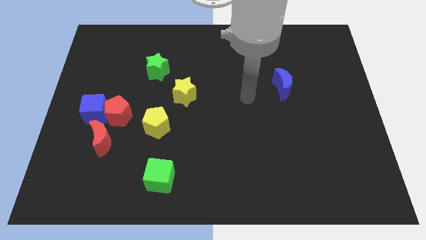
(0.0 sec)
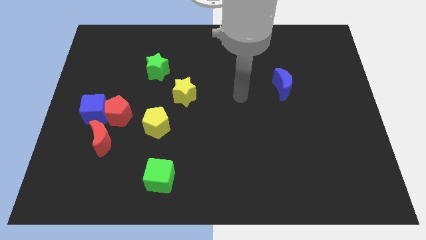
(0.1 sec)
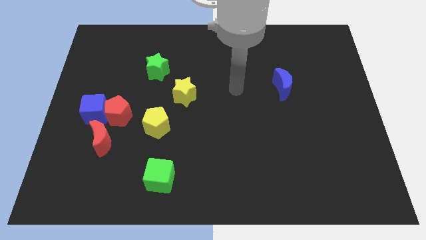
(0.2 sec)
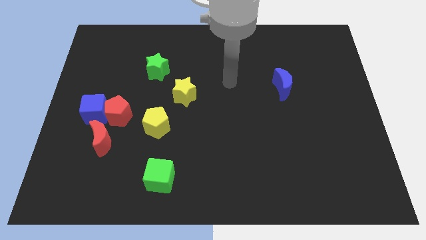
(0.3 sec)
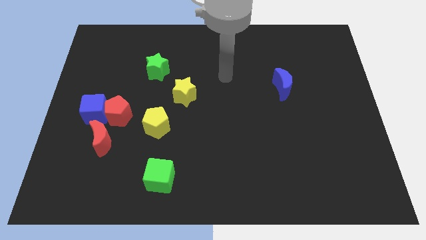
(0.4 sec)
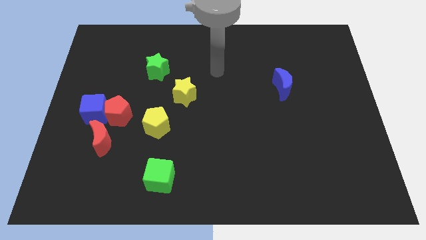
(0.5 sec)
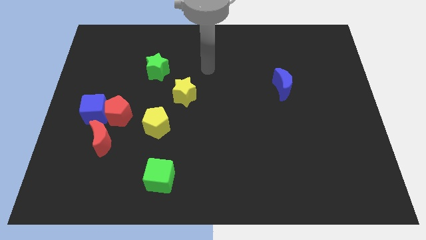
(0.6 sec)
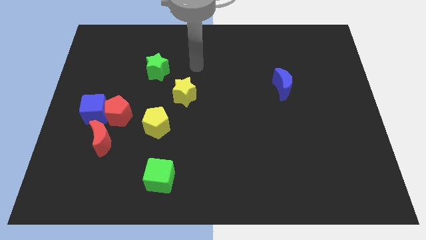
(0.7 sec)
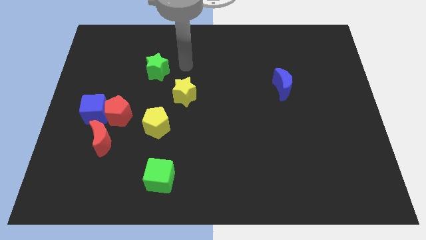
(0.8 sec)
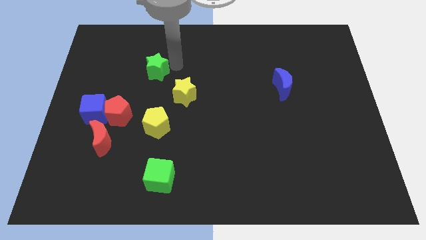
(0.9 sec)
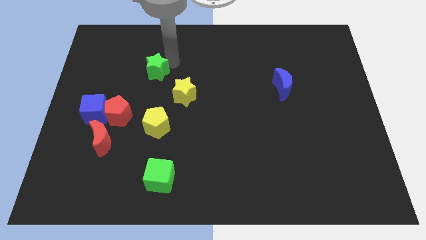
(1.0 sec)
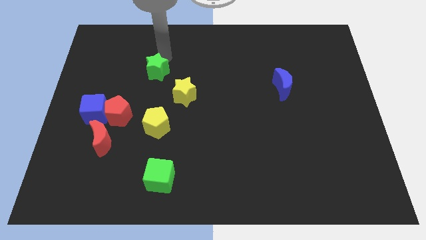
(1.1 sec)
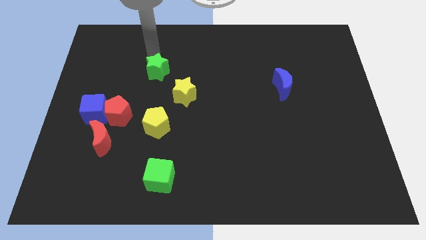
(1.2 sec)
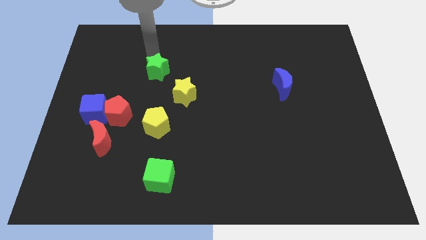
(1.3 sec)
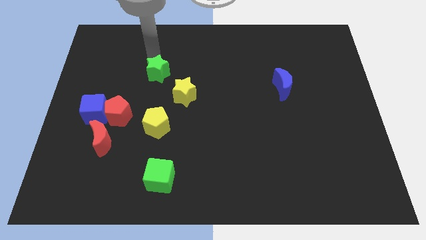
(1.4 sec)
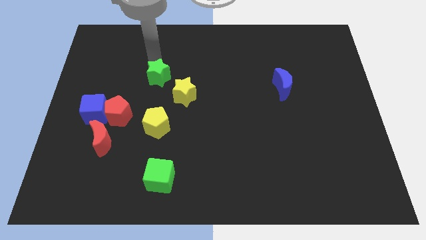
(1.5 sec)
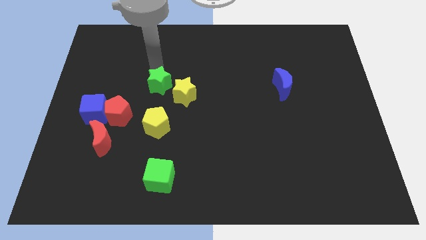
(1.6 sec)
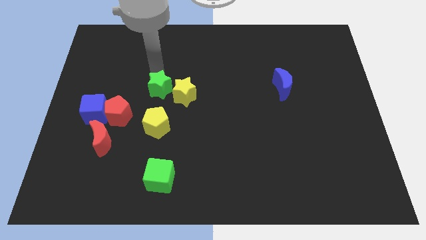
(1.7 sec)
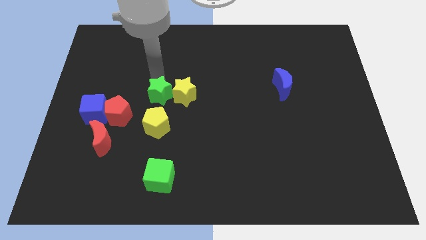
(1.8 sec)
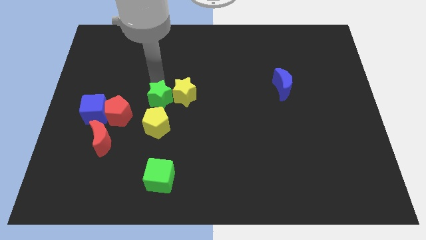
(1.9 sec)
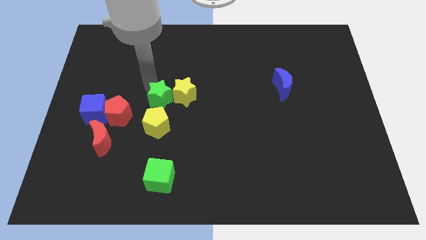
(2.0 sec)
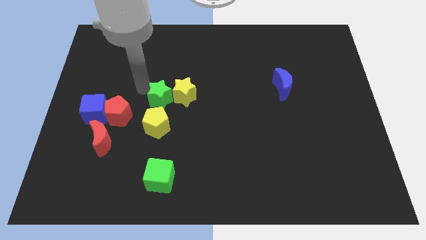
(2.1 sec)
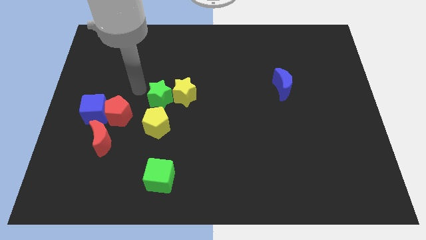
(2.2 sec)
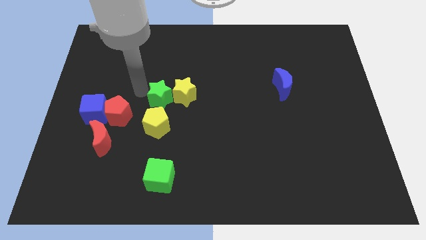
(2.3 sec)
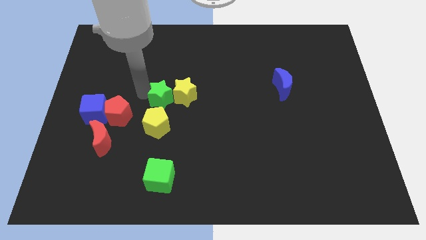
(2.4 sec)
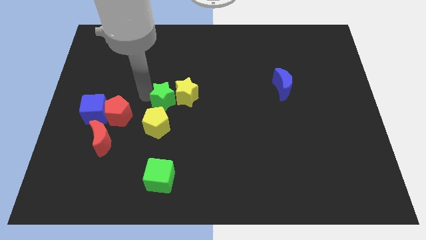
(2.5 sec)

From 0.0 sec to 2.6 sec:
push the green star down and right diagonally a little

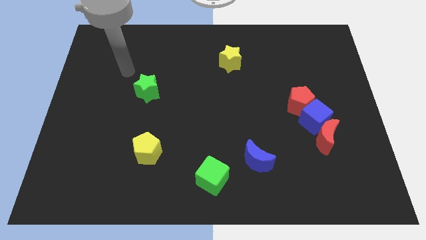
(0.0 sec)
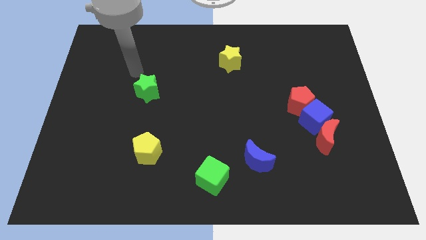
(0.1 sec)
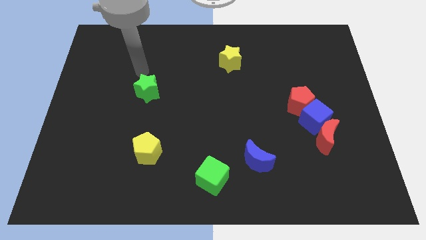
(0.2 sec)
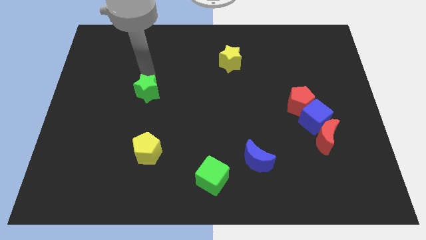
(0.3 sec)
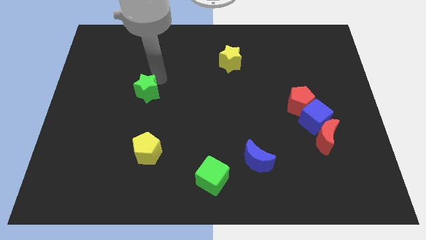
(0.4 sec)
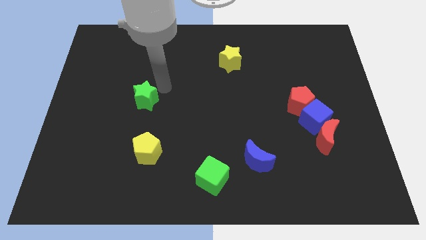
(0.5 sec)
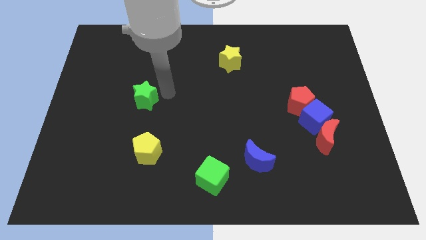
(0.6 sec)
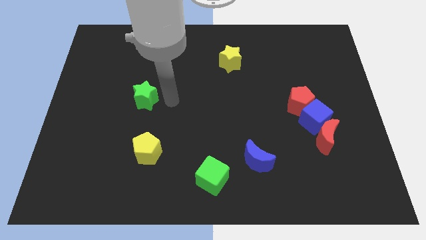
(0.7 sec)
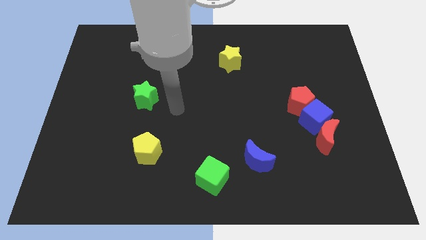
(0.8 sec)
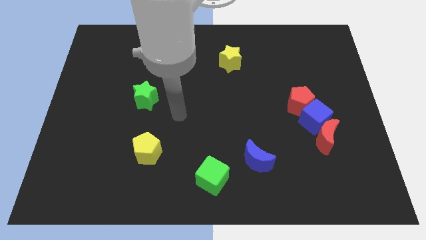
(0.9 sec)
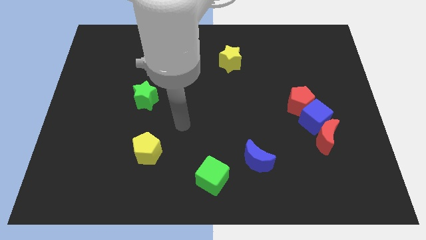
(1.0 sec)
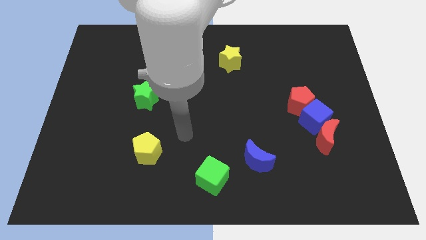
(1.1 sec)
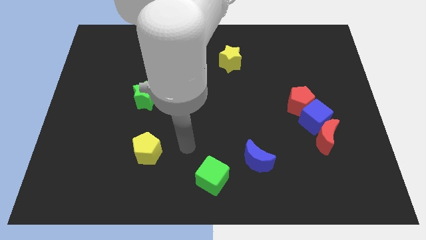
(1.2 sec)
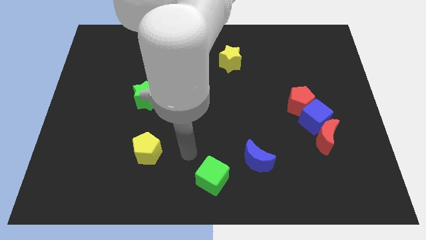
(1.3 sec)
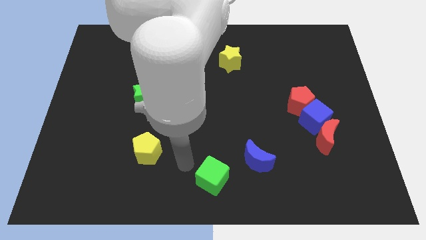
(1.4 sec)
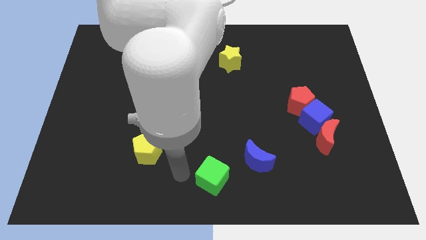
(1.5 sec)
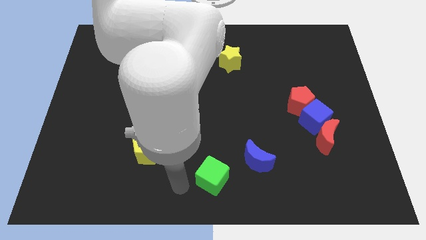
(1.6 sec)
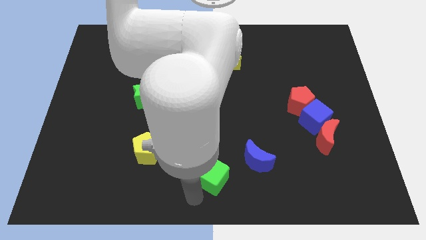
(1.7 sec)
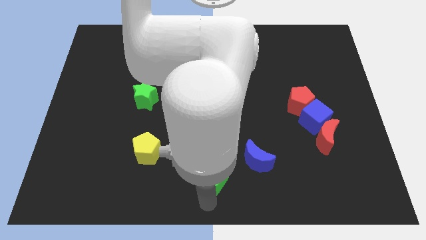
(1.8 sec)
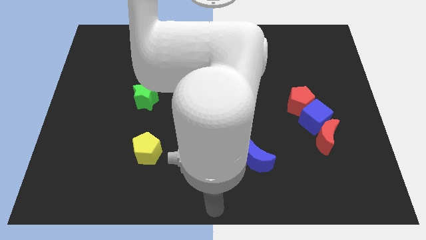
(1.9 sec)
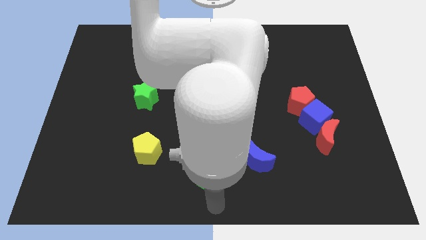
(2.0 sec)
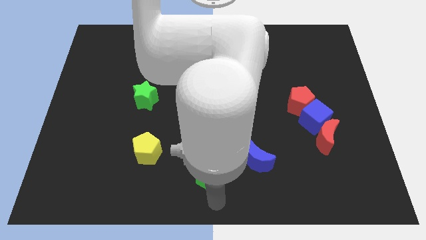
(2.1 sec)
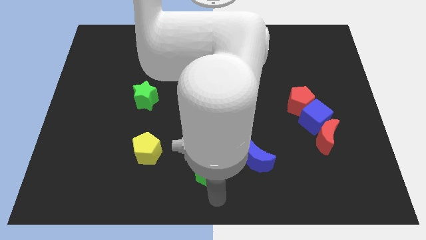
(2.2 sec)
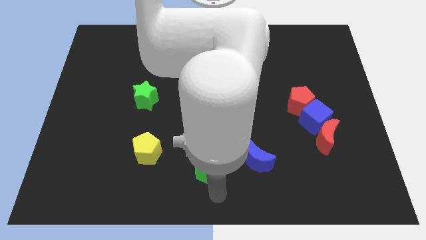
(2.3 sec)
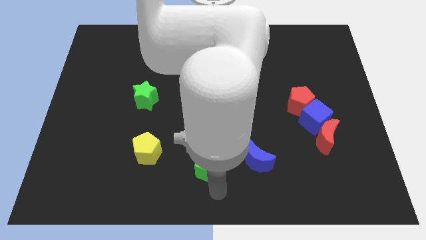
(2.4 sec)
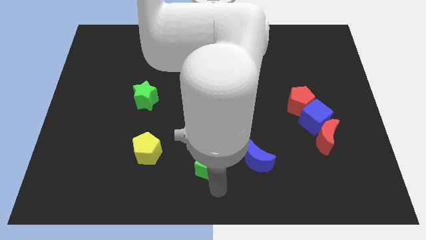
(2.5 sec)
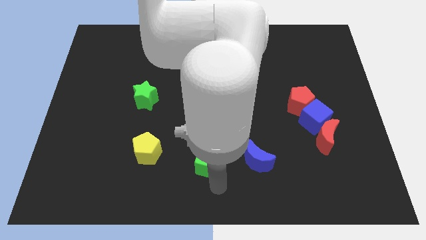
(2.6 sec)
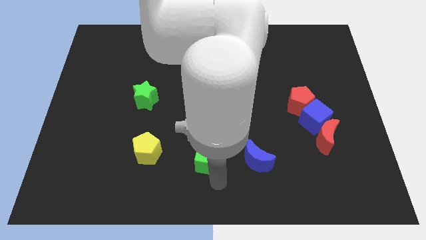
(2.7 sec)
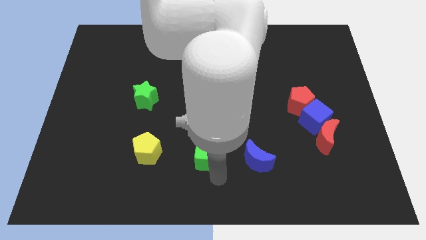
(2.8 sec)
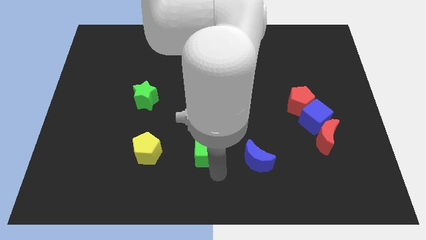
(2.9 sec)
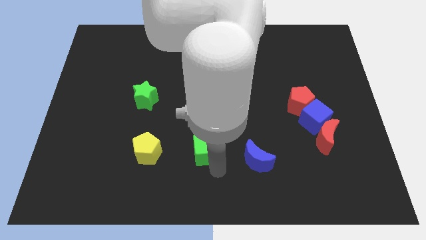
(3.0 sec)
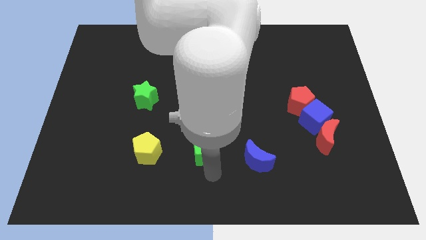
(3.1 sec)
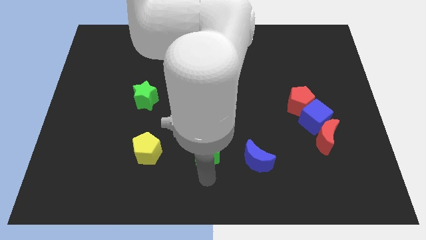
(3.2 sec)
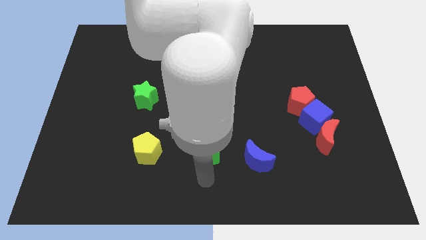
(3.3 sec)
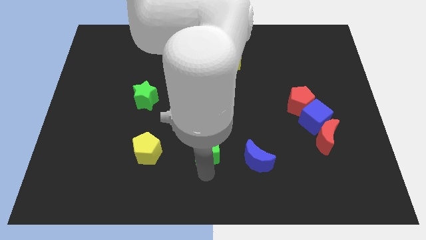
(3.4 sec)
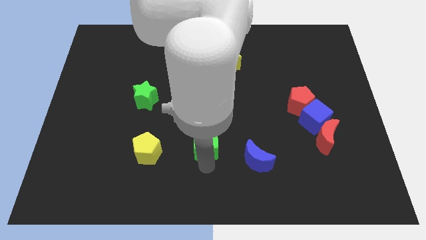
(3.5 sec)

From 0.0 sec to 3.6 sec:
slide the green cube a little bit upwards

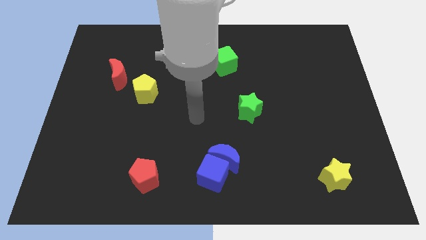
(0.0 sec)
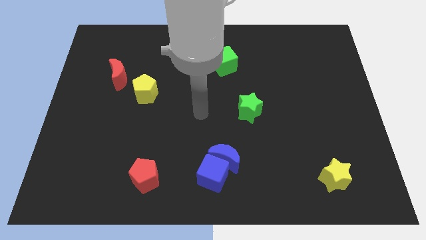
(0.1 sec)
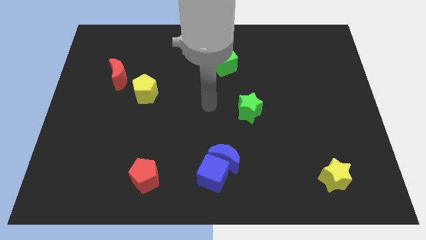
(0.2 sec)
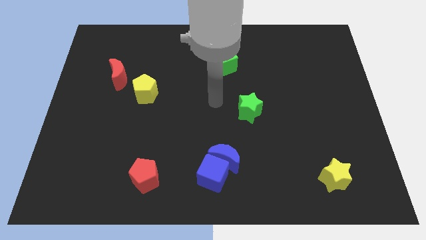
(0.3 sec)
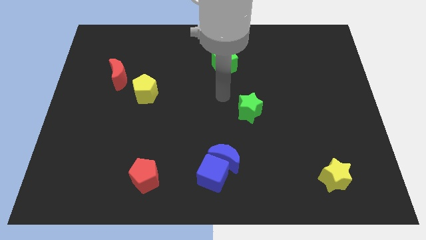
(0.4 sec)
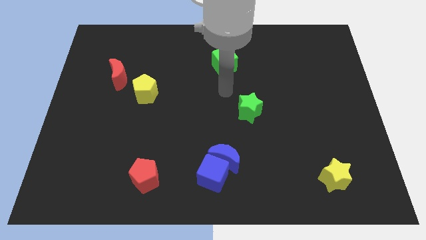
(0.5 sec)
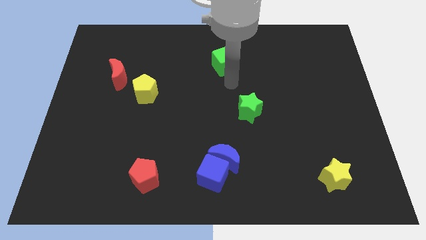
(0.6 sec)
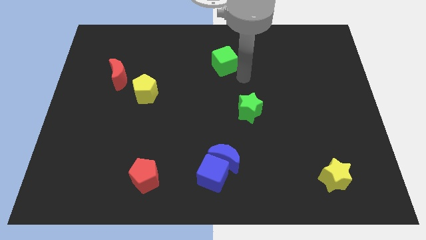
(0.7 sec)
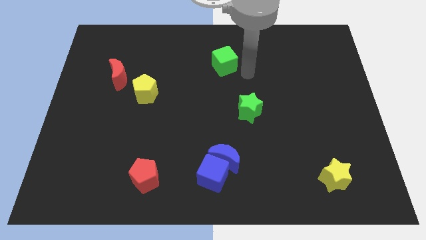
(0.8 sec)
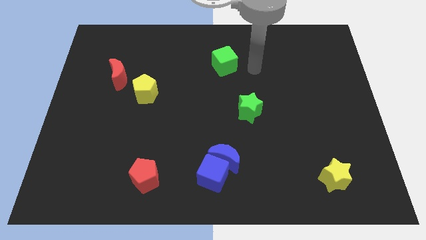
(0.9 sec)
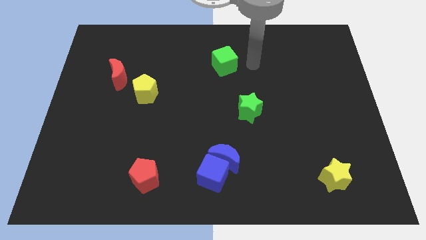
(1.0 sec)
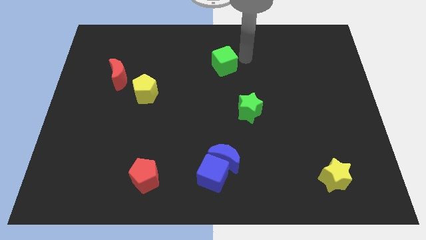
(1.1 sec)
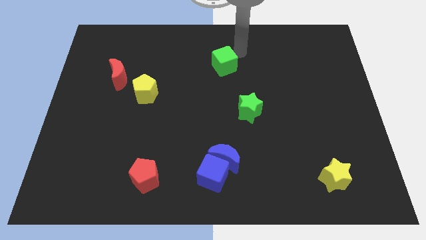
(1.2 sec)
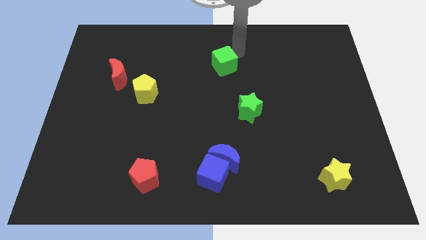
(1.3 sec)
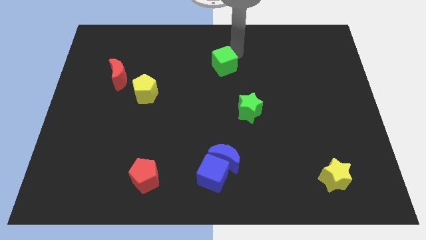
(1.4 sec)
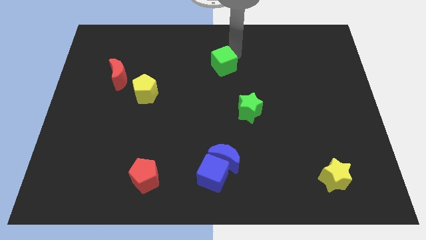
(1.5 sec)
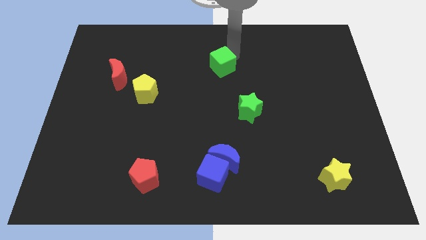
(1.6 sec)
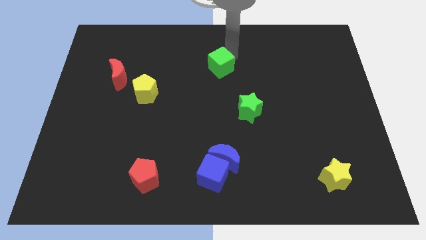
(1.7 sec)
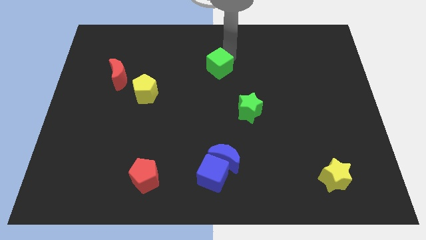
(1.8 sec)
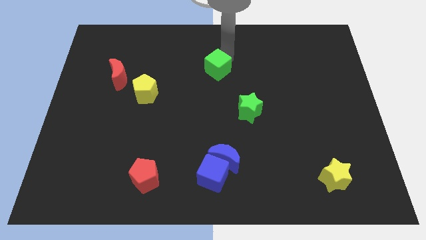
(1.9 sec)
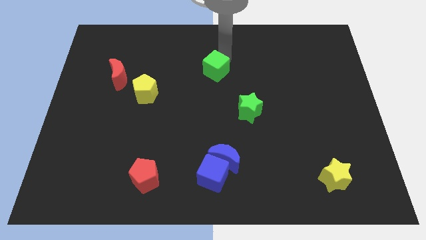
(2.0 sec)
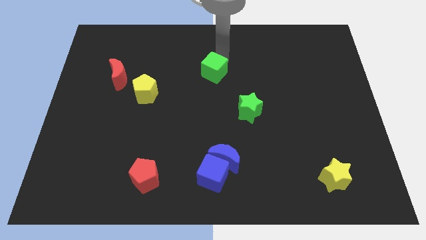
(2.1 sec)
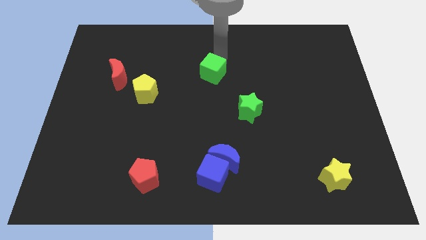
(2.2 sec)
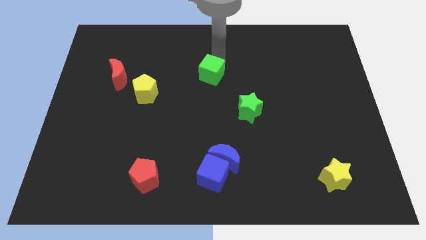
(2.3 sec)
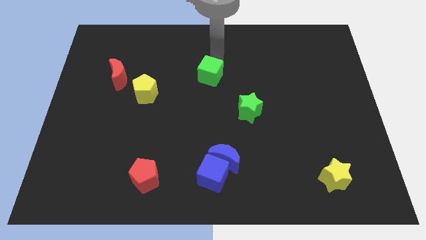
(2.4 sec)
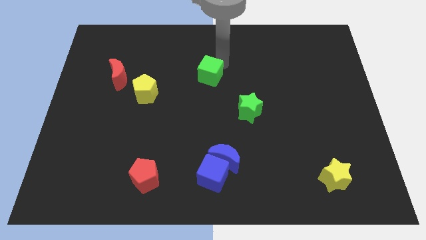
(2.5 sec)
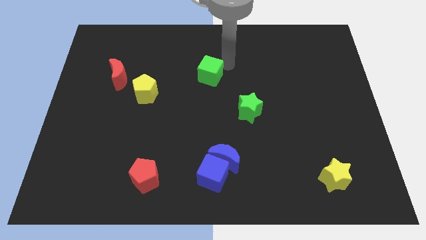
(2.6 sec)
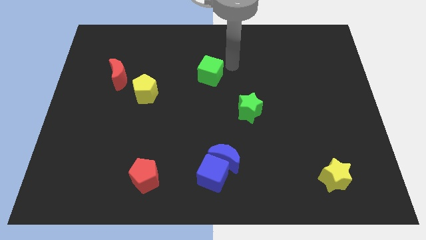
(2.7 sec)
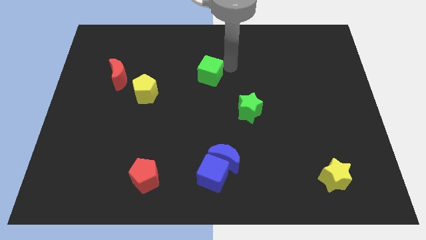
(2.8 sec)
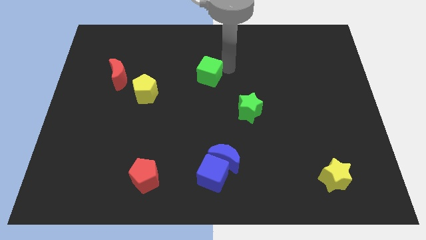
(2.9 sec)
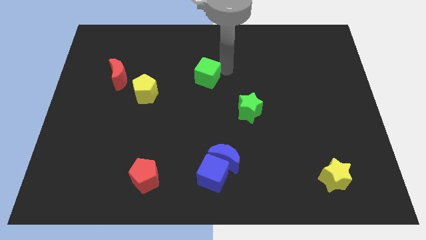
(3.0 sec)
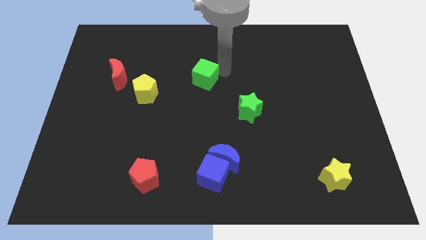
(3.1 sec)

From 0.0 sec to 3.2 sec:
push the green cube downwards and to the left diagonally a little
